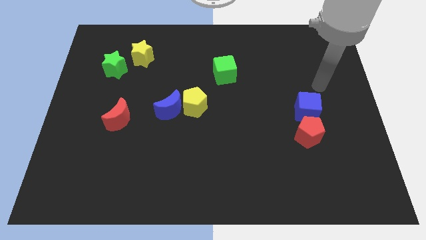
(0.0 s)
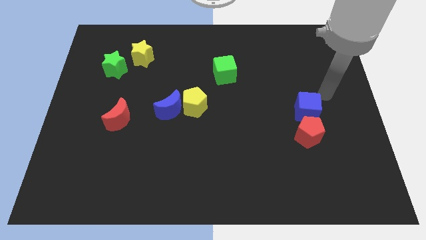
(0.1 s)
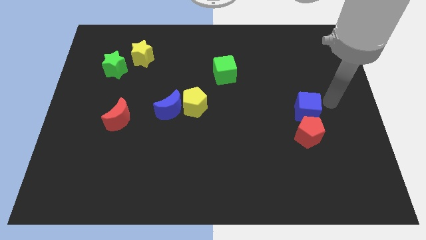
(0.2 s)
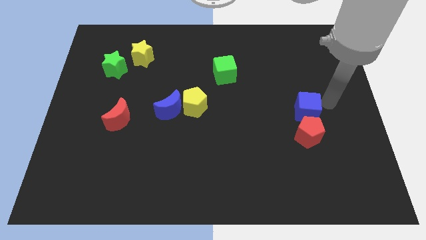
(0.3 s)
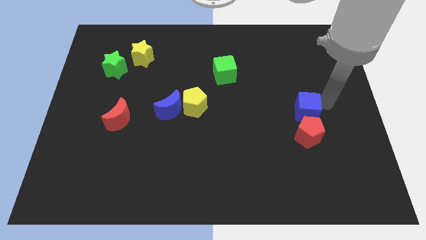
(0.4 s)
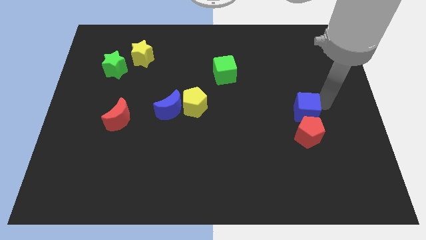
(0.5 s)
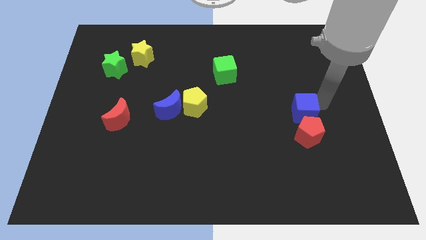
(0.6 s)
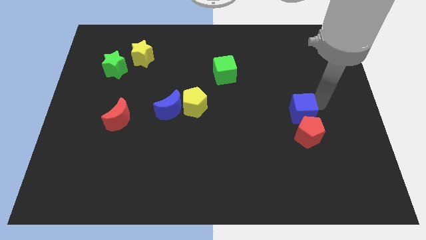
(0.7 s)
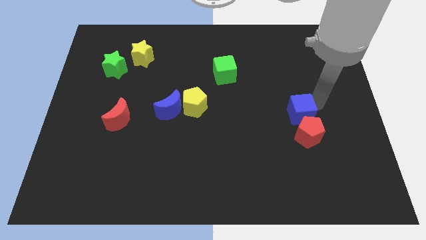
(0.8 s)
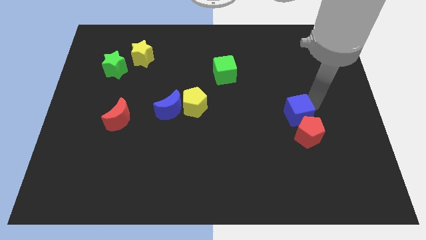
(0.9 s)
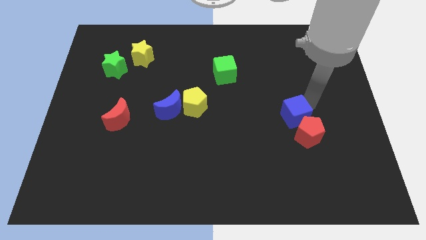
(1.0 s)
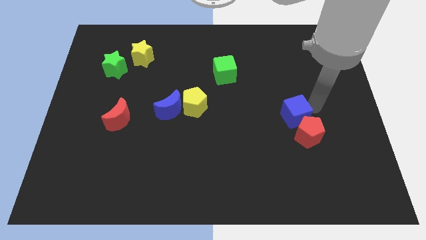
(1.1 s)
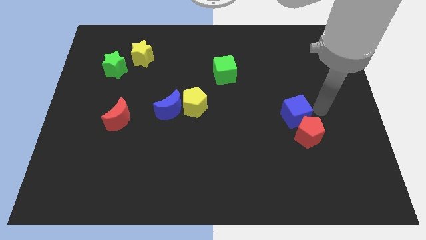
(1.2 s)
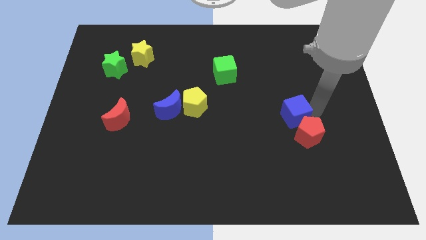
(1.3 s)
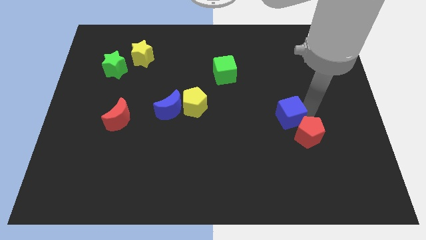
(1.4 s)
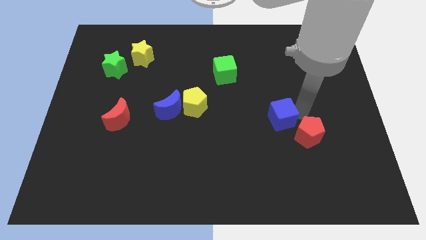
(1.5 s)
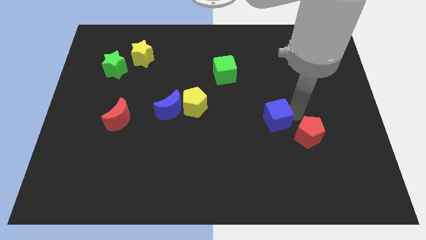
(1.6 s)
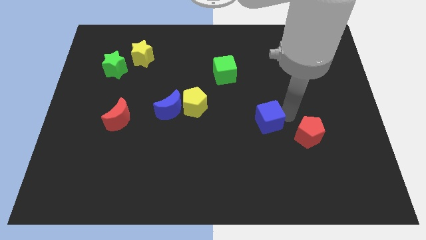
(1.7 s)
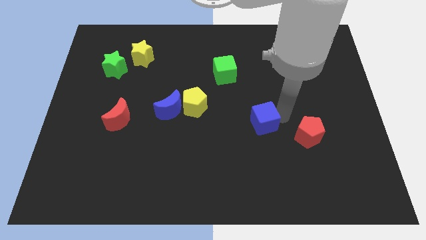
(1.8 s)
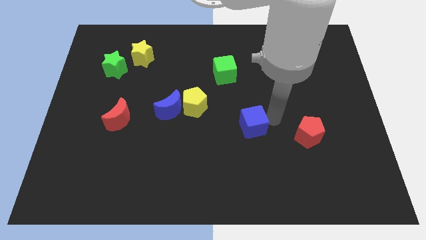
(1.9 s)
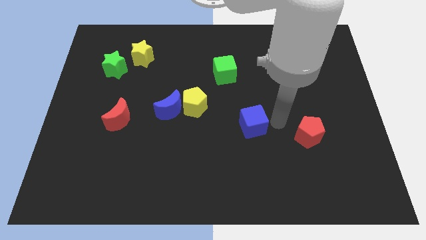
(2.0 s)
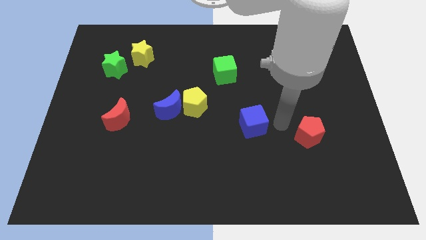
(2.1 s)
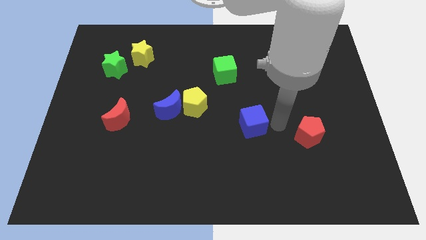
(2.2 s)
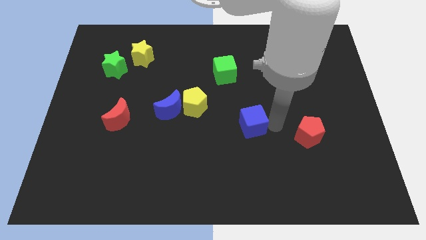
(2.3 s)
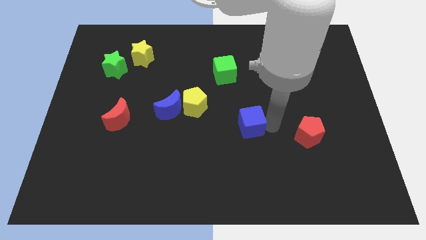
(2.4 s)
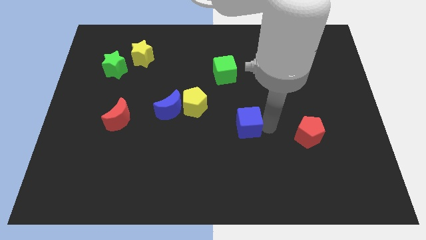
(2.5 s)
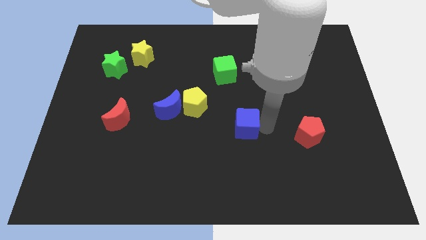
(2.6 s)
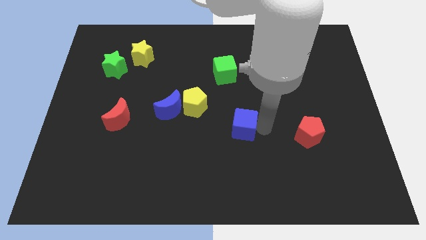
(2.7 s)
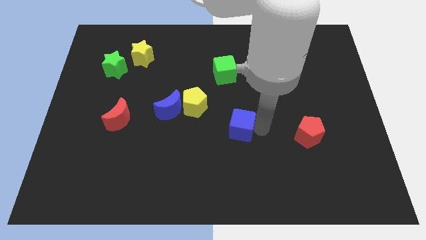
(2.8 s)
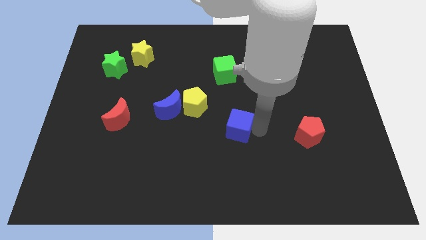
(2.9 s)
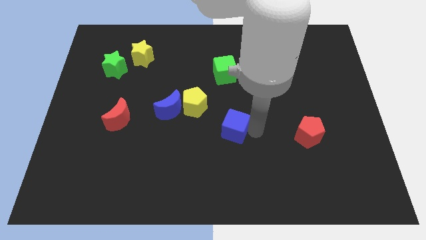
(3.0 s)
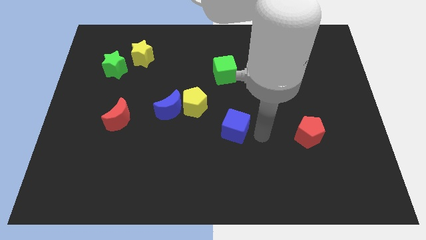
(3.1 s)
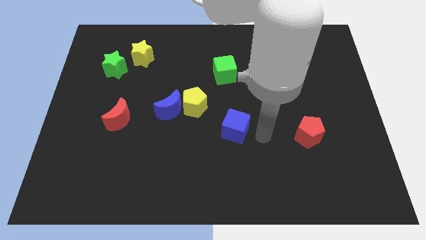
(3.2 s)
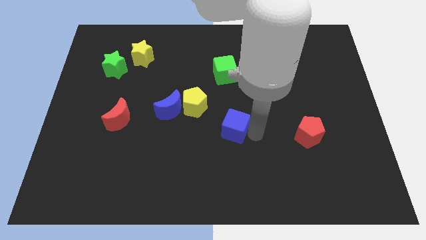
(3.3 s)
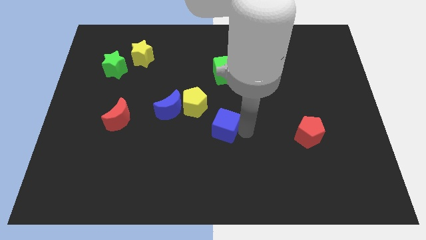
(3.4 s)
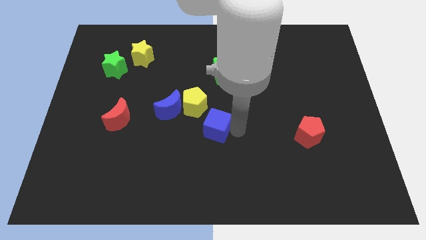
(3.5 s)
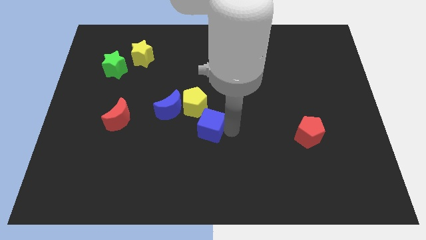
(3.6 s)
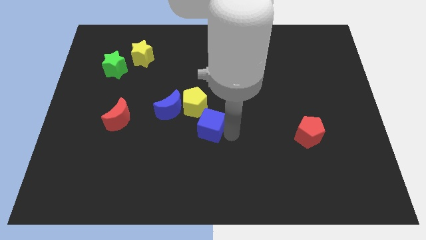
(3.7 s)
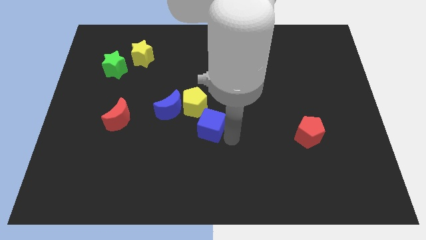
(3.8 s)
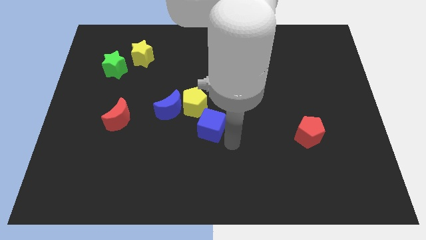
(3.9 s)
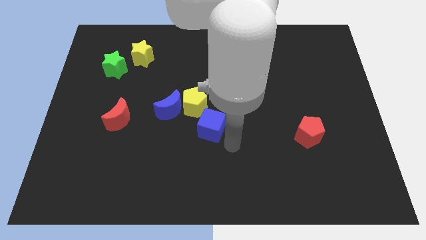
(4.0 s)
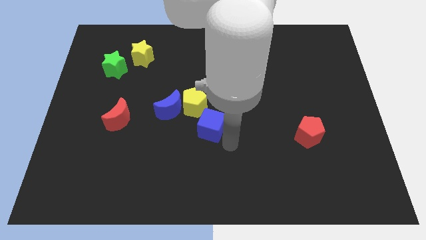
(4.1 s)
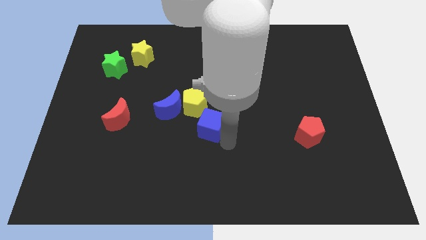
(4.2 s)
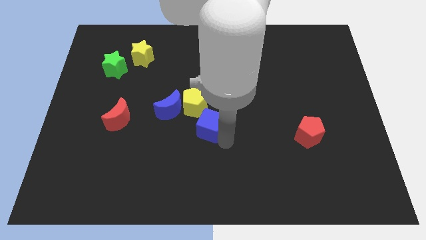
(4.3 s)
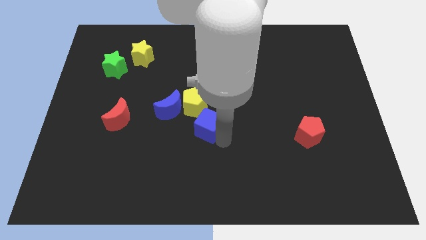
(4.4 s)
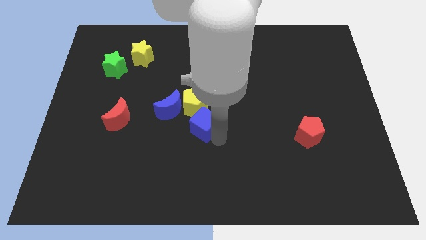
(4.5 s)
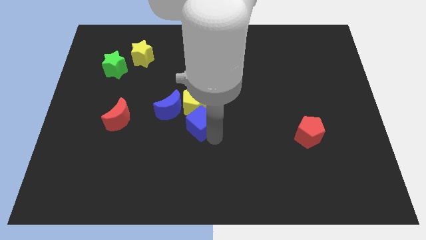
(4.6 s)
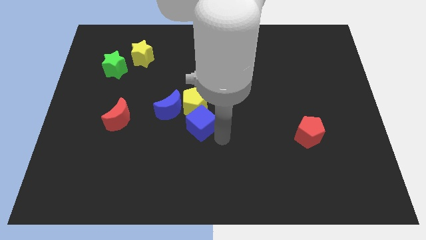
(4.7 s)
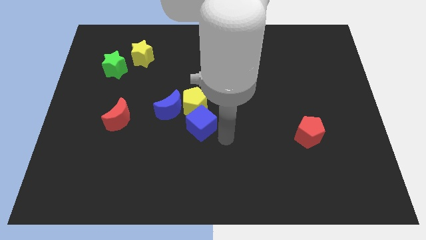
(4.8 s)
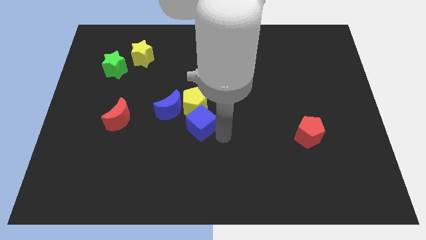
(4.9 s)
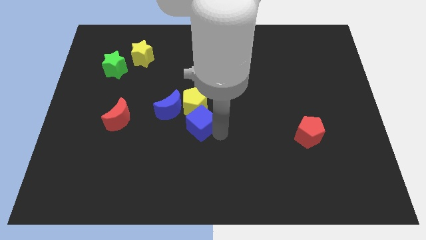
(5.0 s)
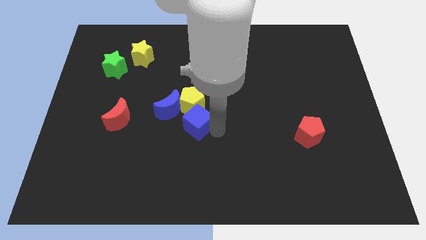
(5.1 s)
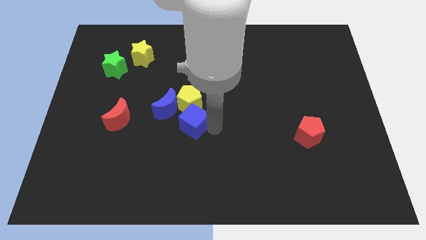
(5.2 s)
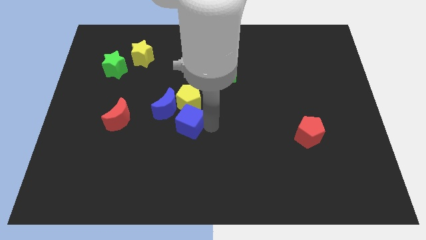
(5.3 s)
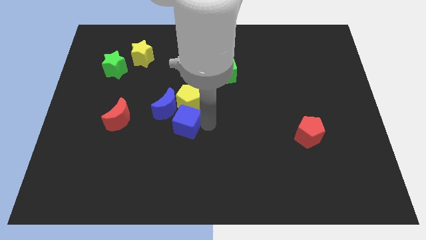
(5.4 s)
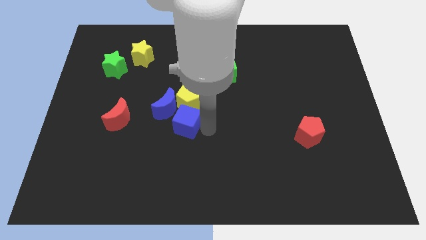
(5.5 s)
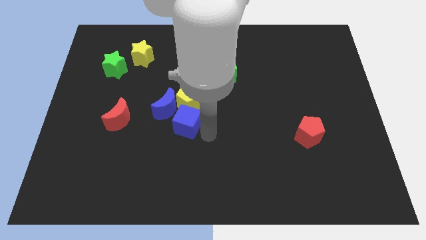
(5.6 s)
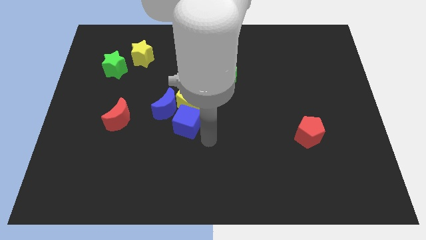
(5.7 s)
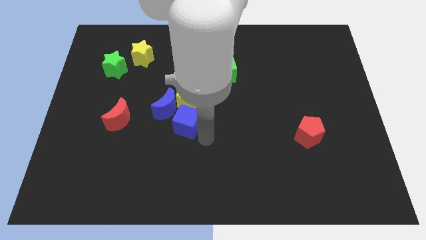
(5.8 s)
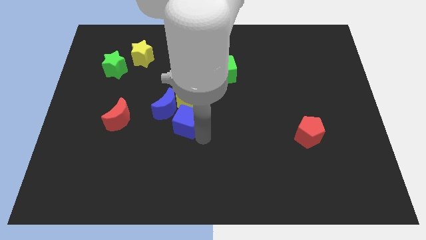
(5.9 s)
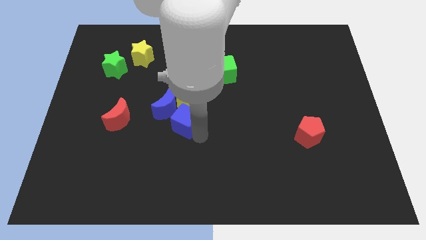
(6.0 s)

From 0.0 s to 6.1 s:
put the blue cube towards the blue moon

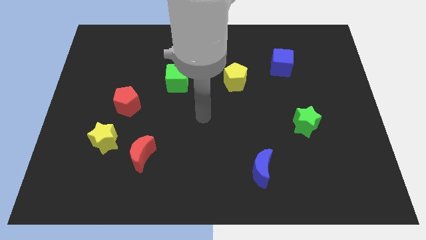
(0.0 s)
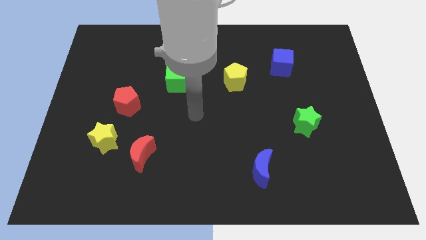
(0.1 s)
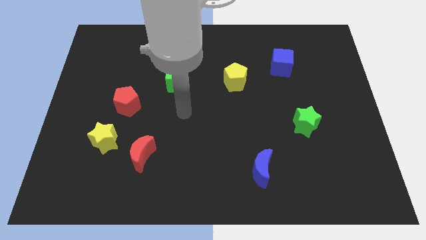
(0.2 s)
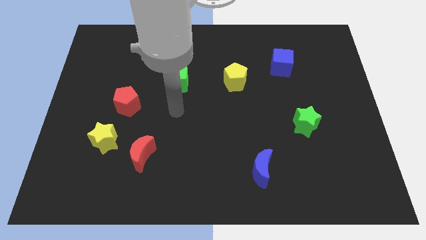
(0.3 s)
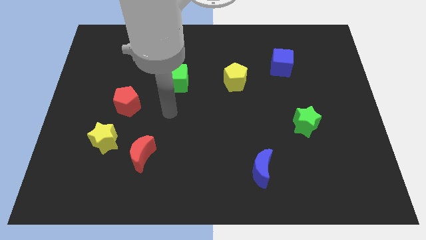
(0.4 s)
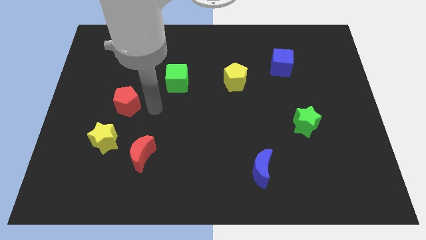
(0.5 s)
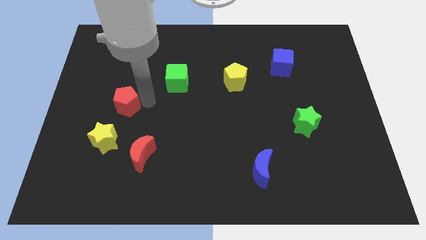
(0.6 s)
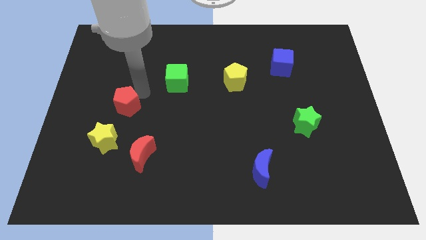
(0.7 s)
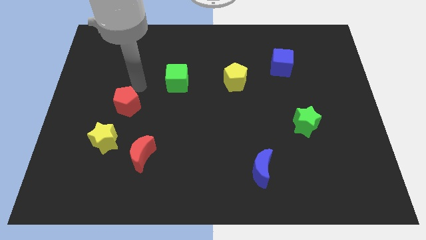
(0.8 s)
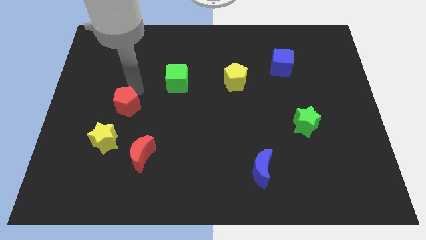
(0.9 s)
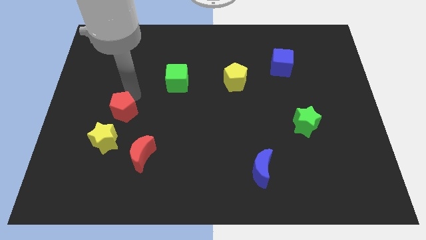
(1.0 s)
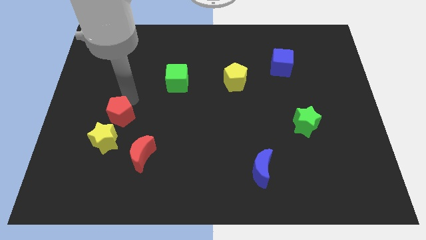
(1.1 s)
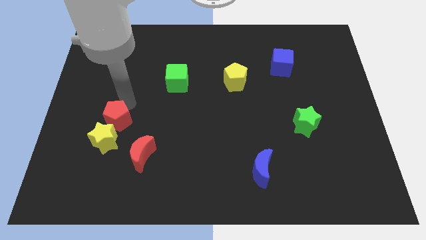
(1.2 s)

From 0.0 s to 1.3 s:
put the red pentagon towards the yellow star
